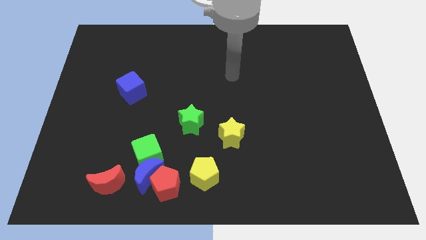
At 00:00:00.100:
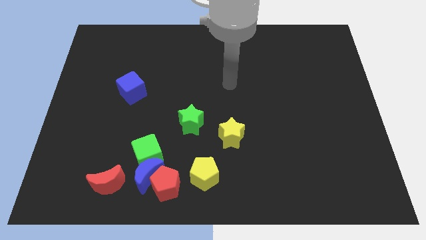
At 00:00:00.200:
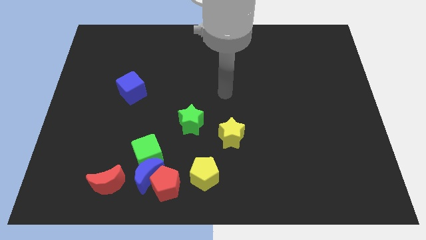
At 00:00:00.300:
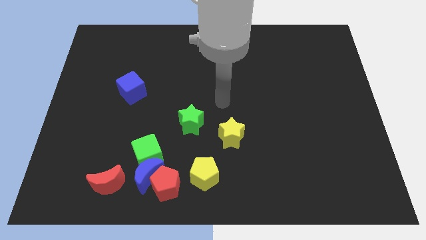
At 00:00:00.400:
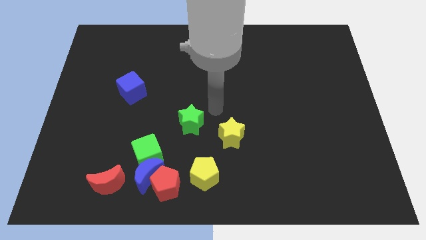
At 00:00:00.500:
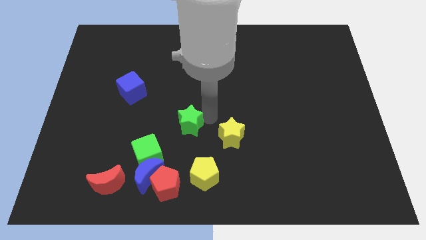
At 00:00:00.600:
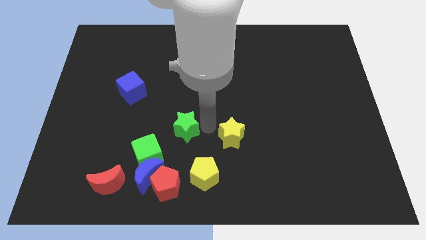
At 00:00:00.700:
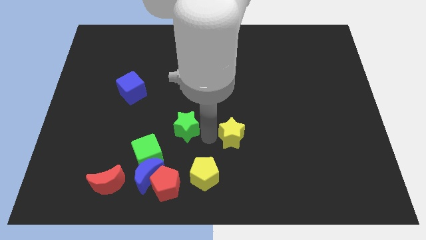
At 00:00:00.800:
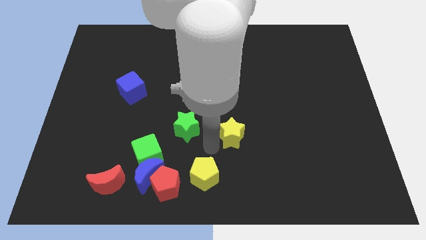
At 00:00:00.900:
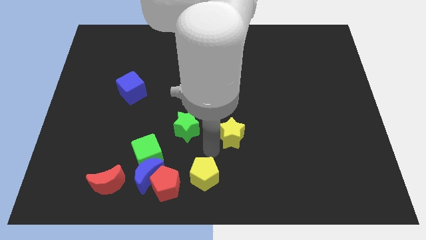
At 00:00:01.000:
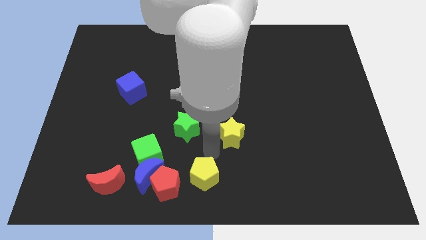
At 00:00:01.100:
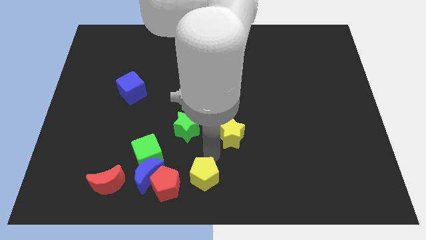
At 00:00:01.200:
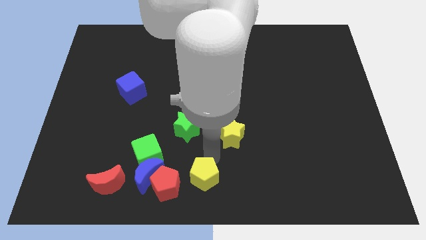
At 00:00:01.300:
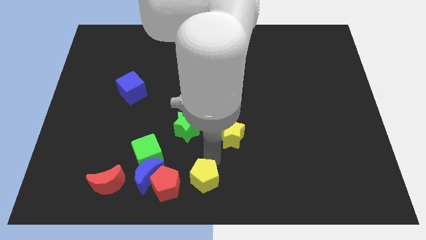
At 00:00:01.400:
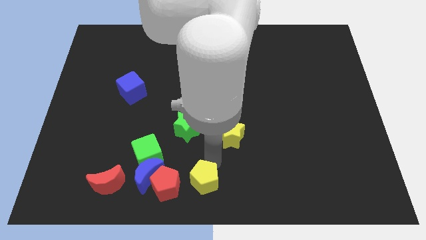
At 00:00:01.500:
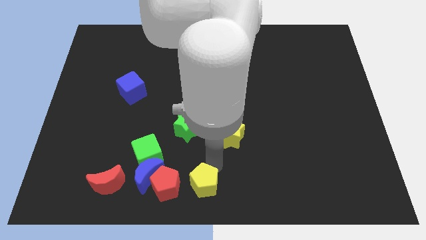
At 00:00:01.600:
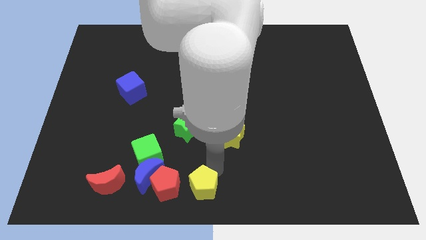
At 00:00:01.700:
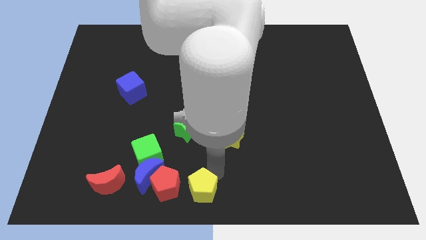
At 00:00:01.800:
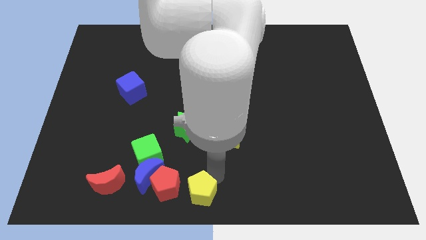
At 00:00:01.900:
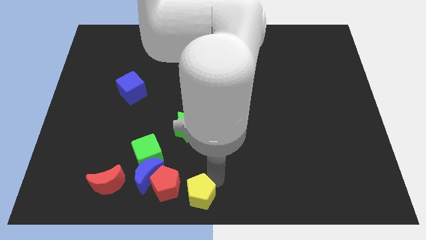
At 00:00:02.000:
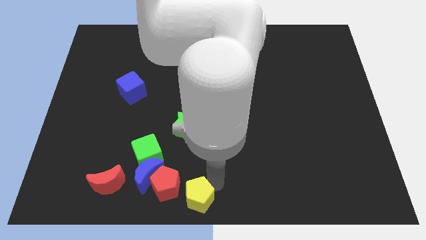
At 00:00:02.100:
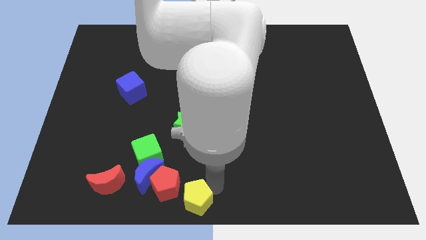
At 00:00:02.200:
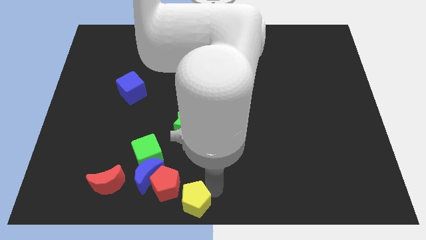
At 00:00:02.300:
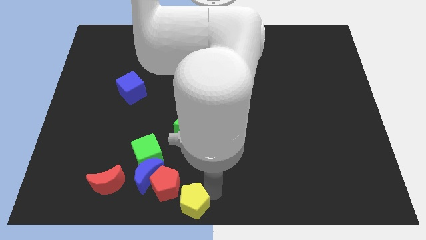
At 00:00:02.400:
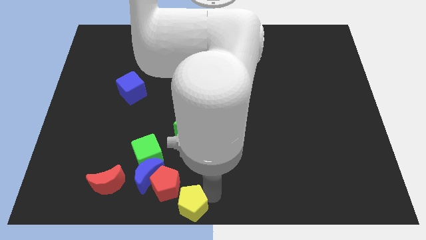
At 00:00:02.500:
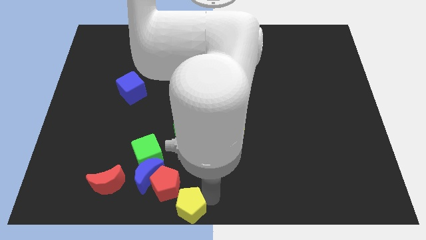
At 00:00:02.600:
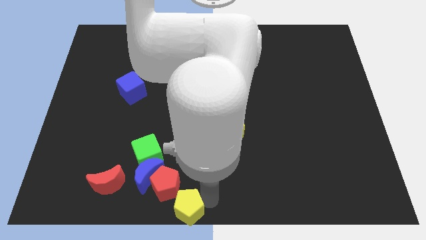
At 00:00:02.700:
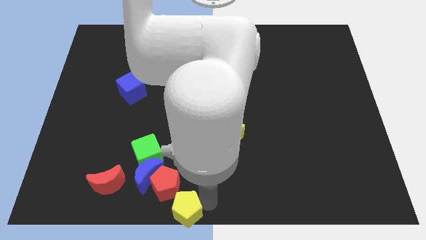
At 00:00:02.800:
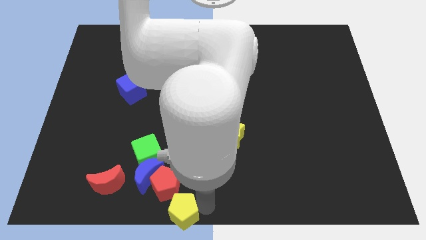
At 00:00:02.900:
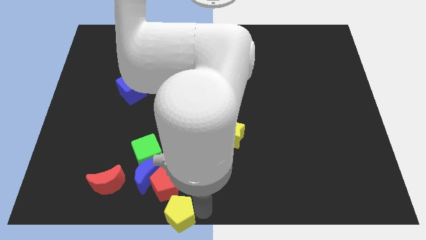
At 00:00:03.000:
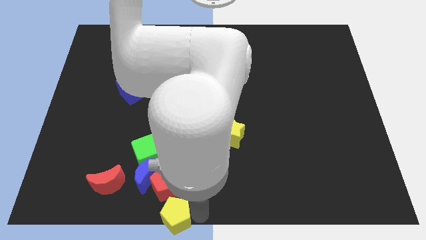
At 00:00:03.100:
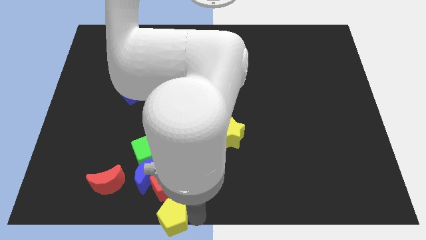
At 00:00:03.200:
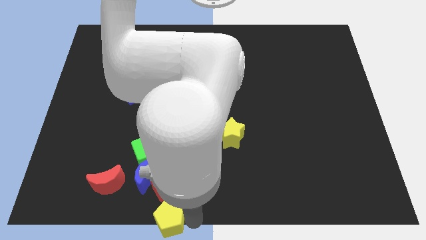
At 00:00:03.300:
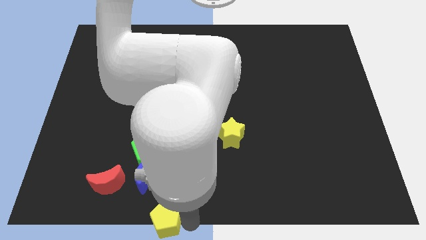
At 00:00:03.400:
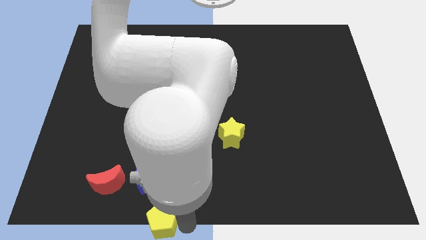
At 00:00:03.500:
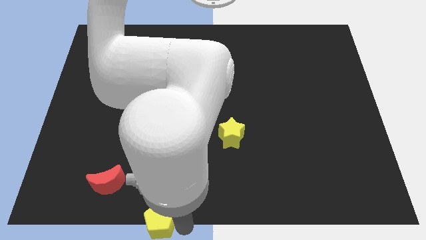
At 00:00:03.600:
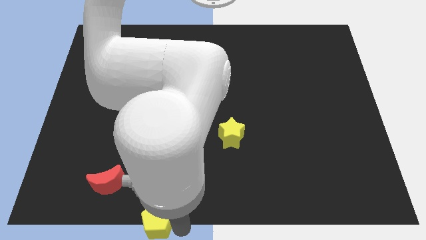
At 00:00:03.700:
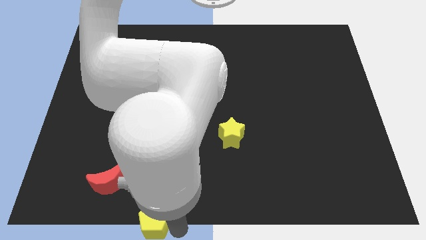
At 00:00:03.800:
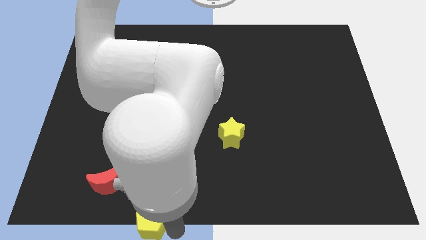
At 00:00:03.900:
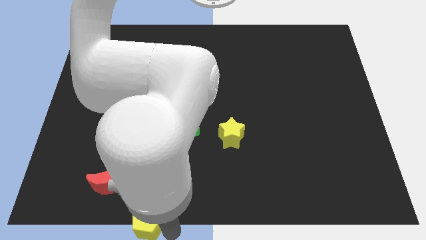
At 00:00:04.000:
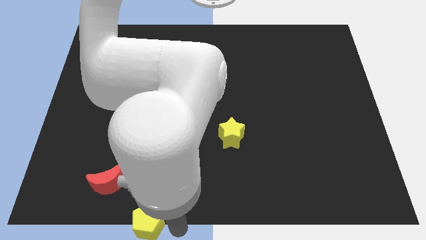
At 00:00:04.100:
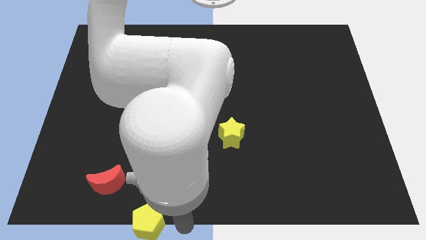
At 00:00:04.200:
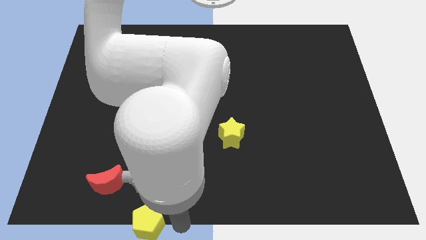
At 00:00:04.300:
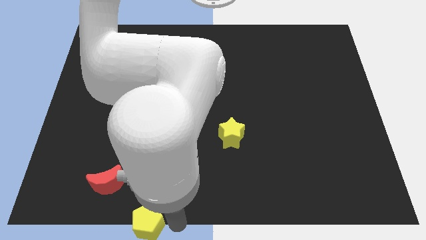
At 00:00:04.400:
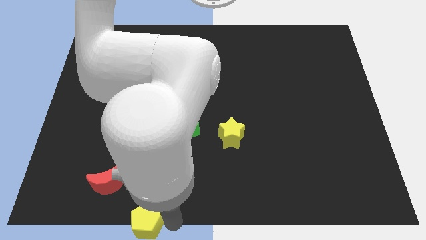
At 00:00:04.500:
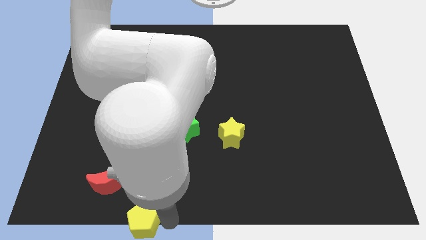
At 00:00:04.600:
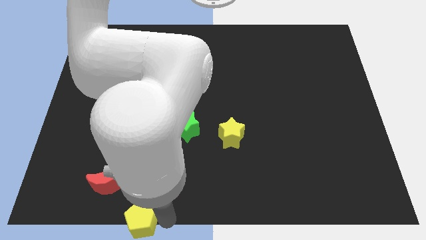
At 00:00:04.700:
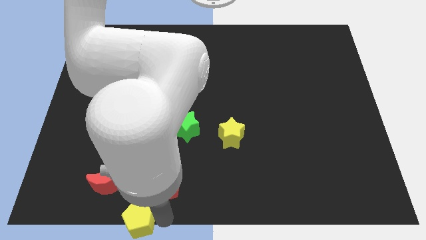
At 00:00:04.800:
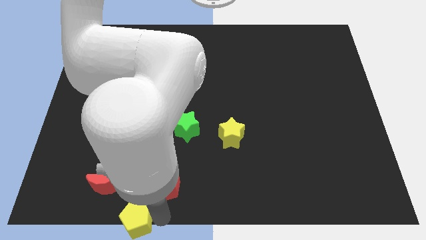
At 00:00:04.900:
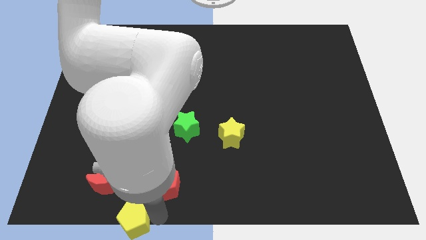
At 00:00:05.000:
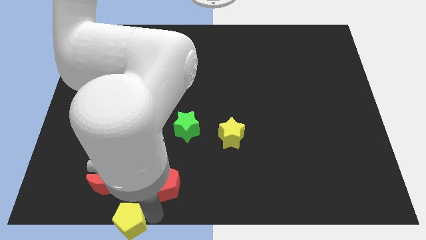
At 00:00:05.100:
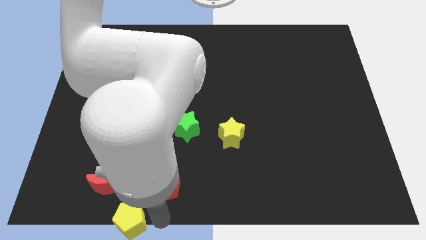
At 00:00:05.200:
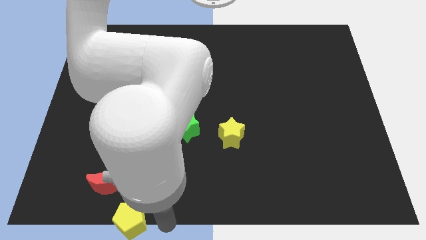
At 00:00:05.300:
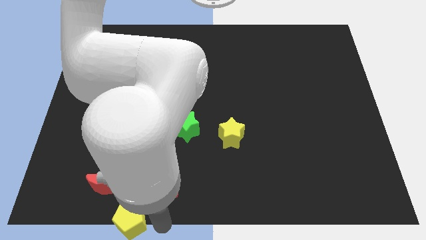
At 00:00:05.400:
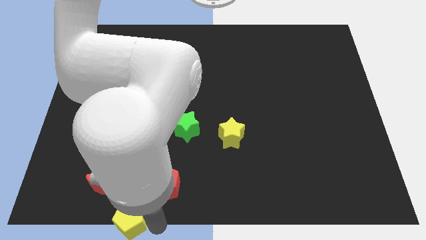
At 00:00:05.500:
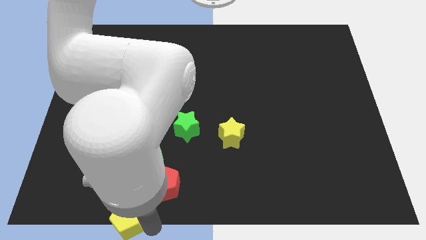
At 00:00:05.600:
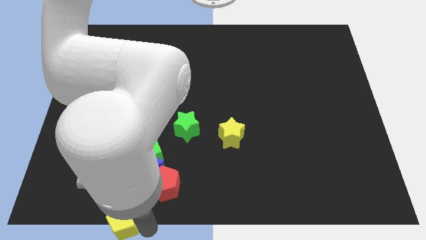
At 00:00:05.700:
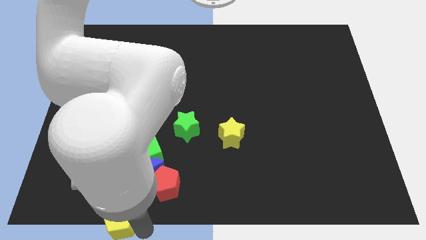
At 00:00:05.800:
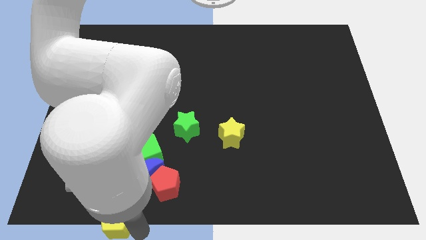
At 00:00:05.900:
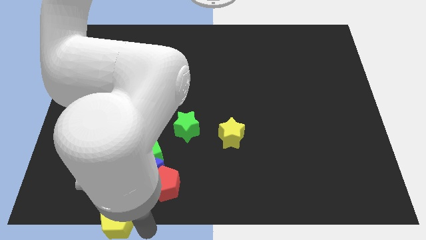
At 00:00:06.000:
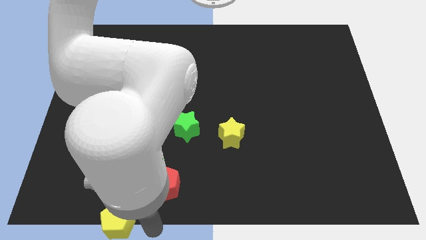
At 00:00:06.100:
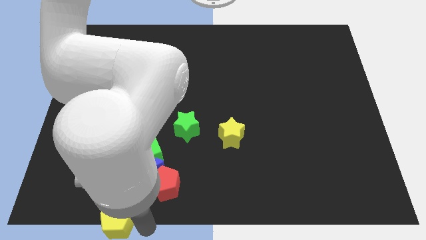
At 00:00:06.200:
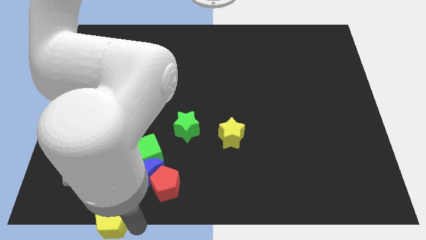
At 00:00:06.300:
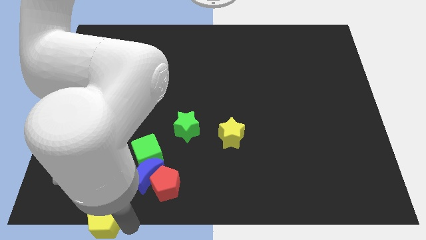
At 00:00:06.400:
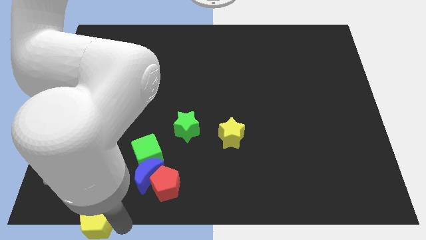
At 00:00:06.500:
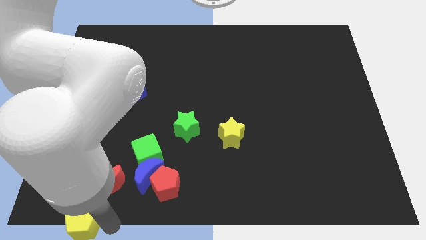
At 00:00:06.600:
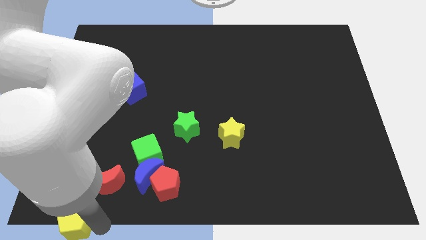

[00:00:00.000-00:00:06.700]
push the yellow pentagon to the bottom left corner

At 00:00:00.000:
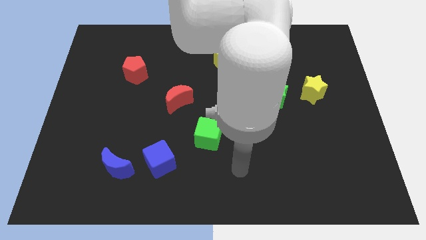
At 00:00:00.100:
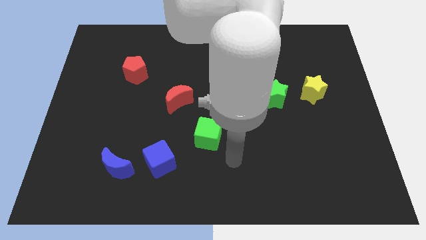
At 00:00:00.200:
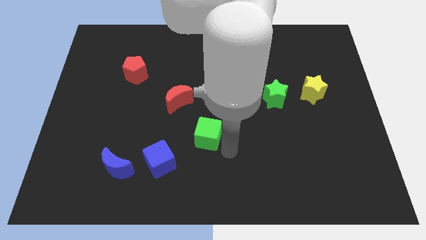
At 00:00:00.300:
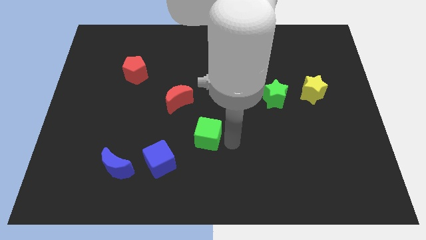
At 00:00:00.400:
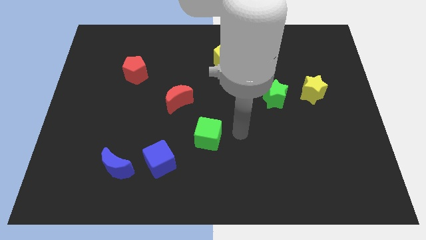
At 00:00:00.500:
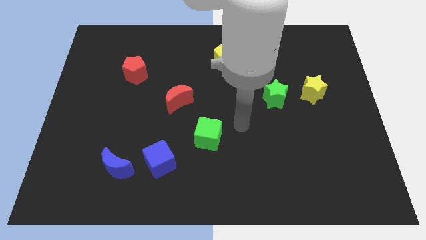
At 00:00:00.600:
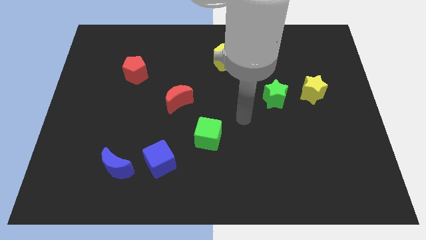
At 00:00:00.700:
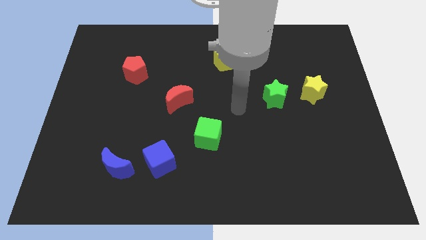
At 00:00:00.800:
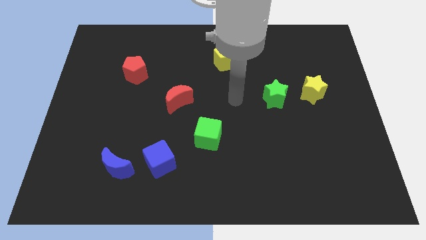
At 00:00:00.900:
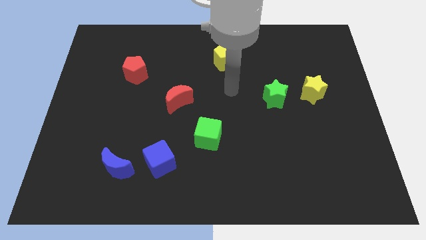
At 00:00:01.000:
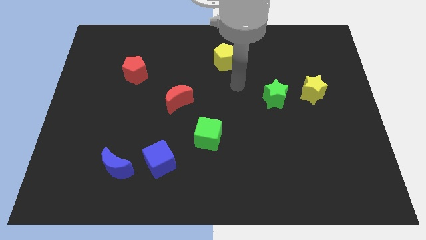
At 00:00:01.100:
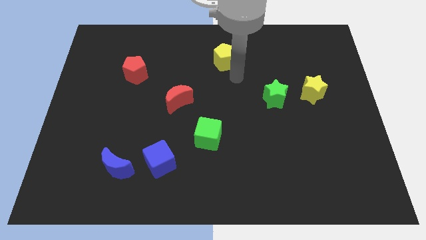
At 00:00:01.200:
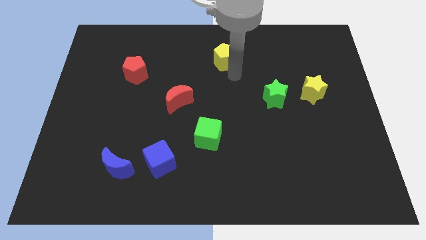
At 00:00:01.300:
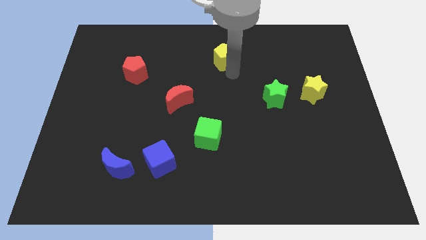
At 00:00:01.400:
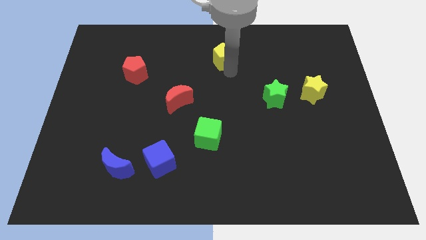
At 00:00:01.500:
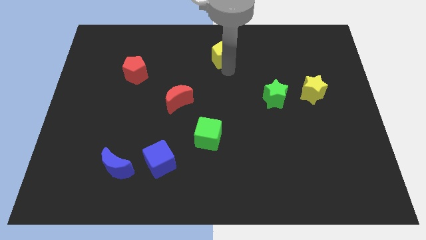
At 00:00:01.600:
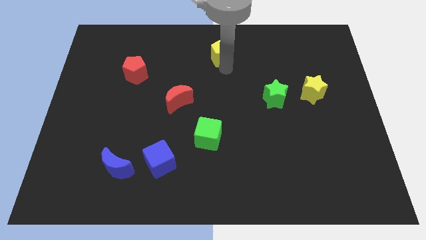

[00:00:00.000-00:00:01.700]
move the yellow pentagon to the towards your base
